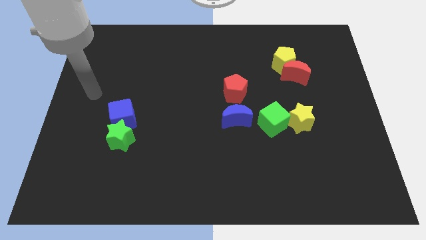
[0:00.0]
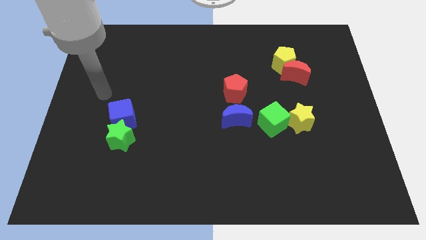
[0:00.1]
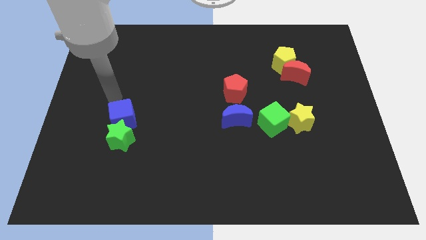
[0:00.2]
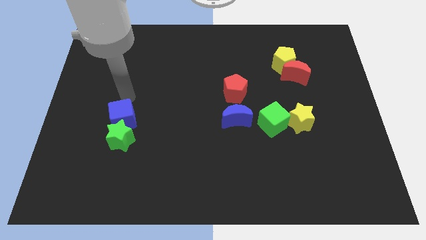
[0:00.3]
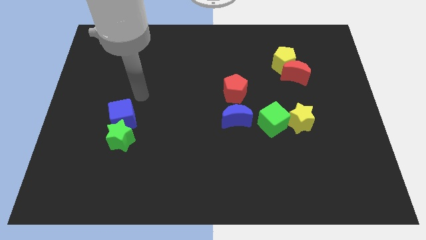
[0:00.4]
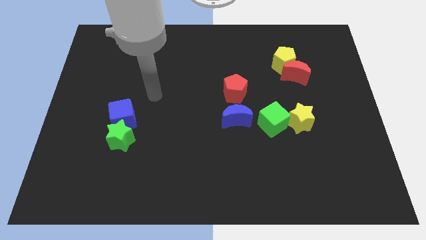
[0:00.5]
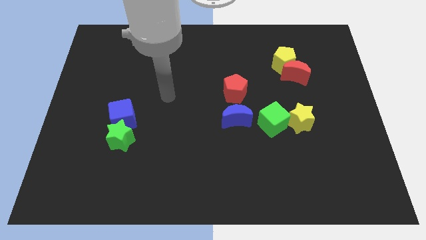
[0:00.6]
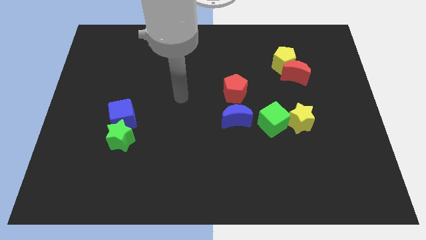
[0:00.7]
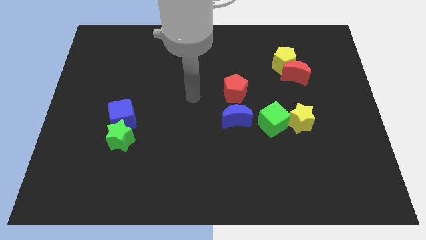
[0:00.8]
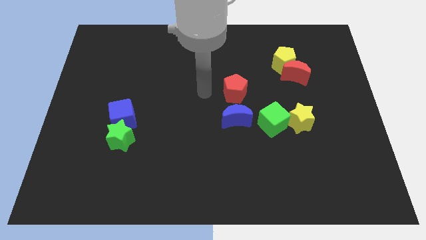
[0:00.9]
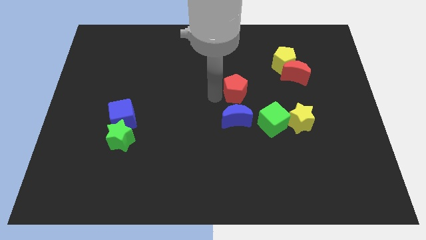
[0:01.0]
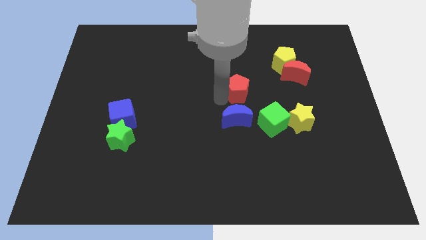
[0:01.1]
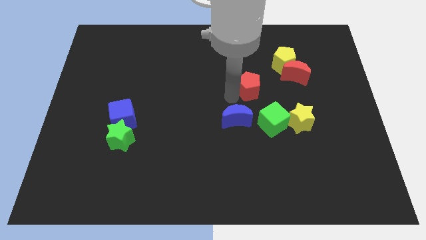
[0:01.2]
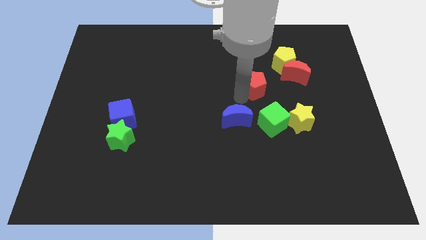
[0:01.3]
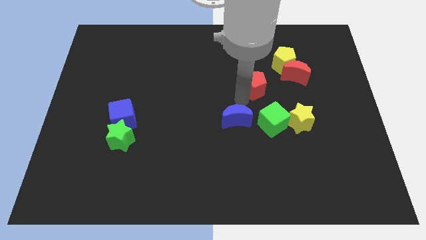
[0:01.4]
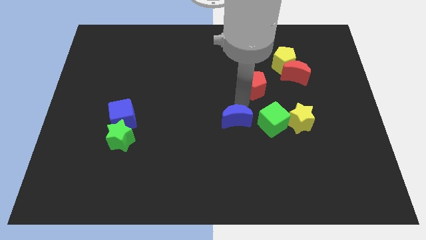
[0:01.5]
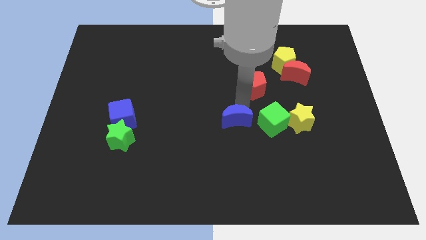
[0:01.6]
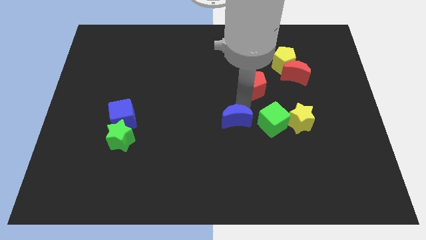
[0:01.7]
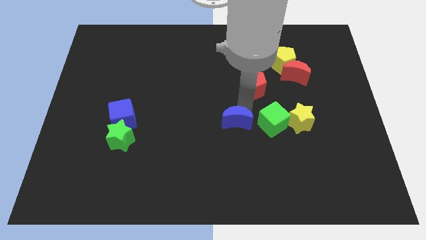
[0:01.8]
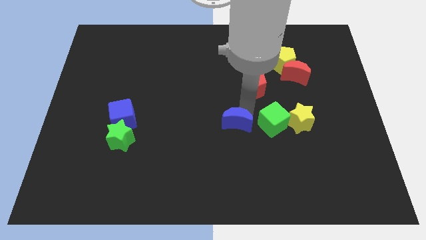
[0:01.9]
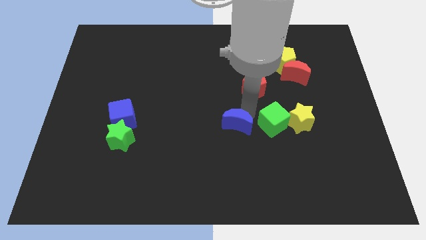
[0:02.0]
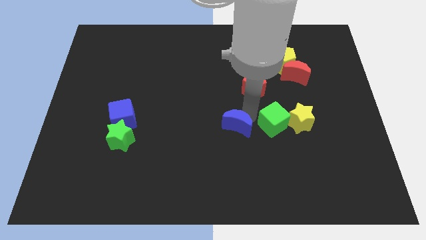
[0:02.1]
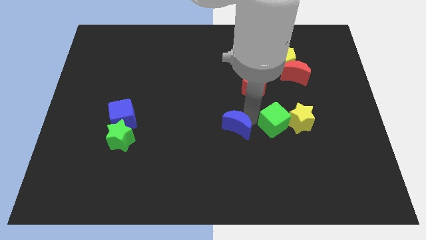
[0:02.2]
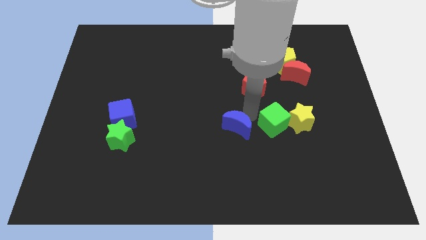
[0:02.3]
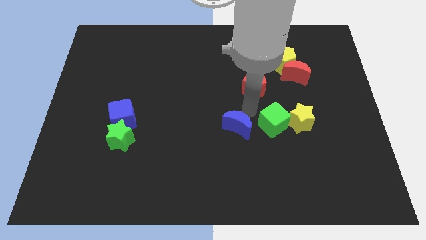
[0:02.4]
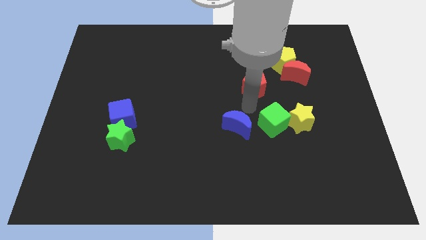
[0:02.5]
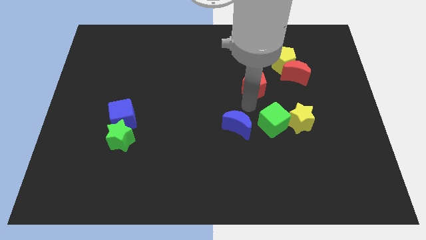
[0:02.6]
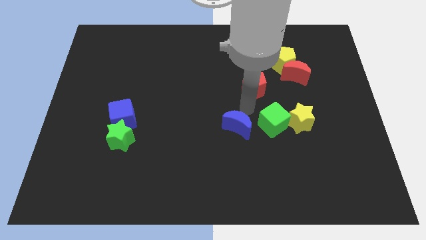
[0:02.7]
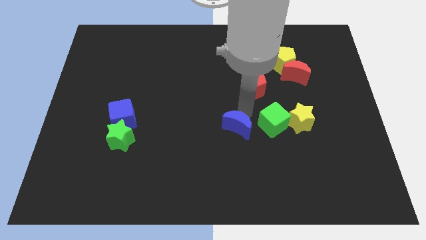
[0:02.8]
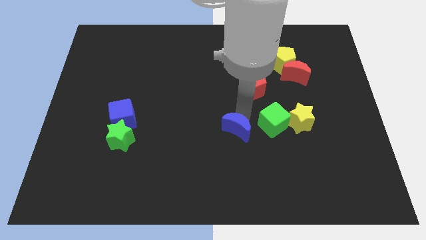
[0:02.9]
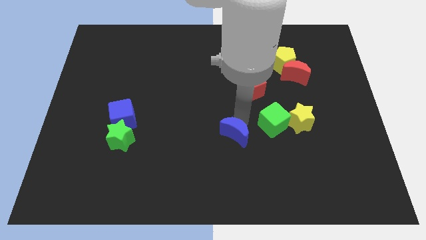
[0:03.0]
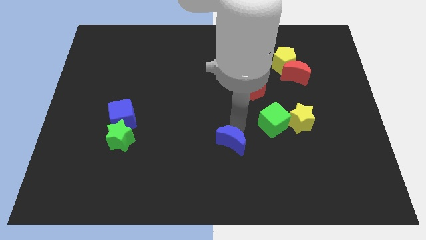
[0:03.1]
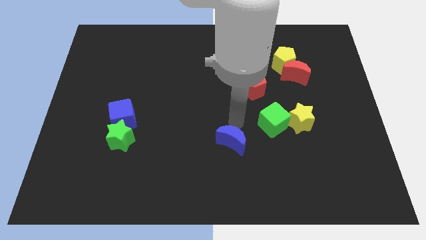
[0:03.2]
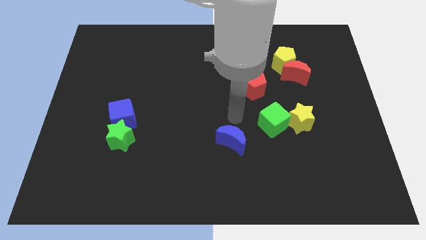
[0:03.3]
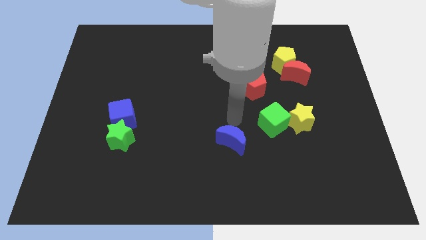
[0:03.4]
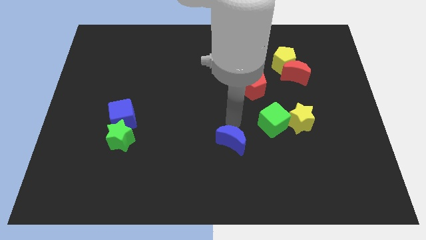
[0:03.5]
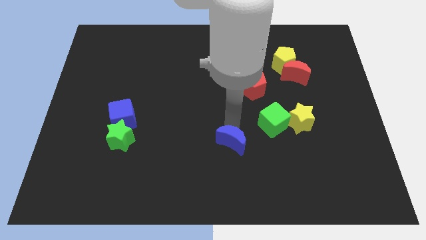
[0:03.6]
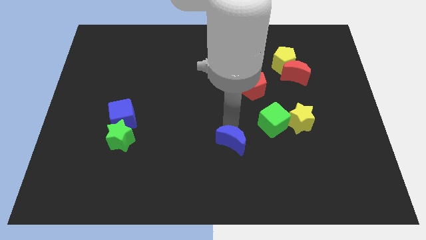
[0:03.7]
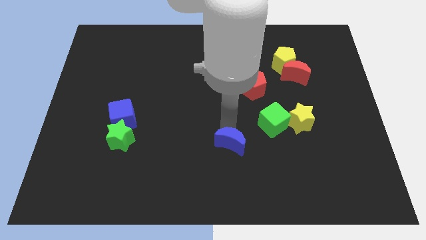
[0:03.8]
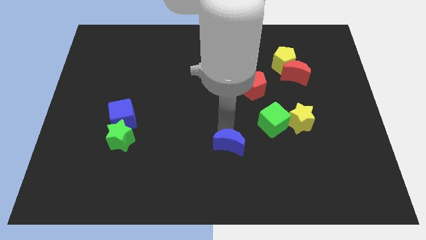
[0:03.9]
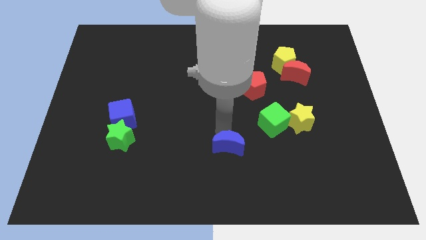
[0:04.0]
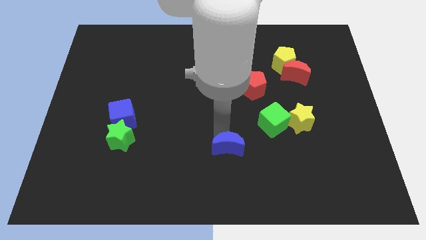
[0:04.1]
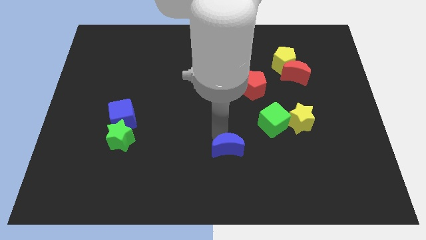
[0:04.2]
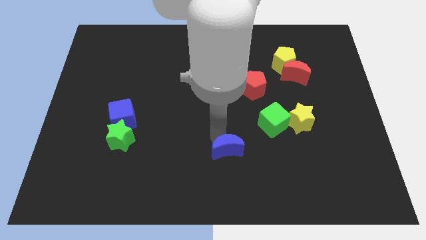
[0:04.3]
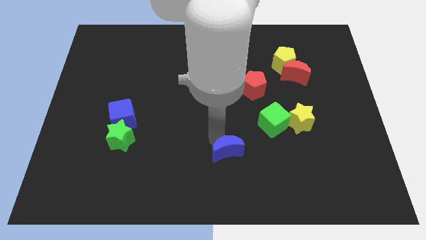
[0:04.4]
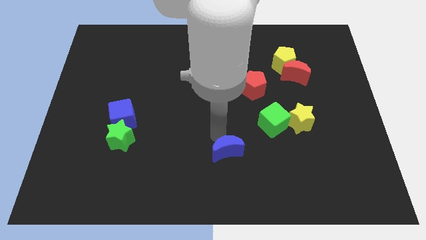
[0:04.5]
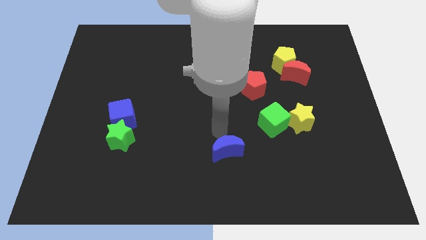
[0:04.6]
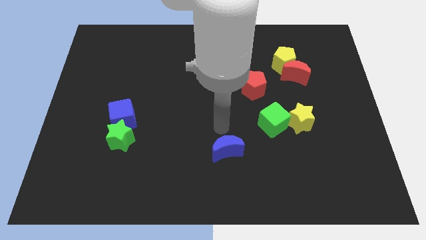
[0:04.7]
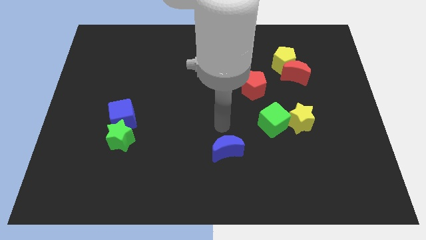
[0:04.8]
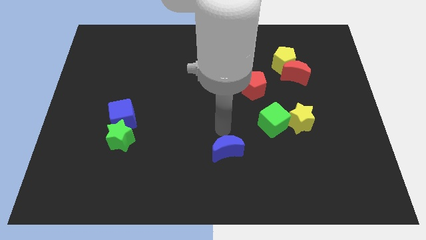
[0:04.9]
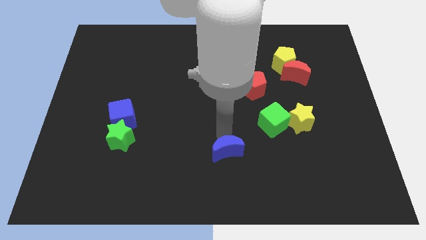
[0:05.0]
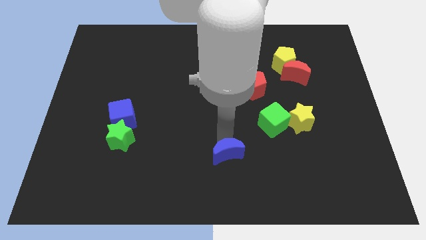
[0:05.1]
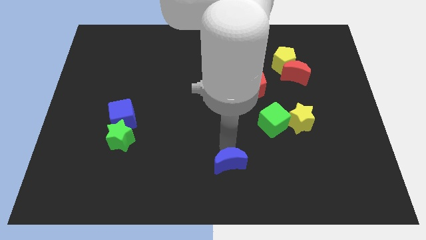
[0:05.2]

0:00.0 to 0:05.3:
put the blue moon to the bottom

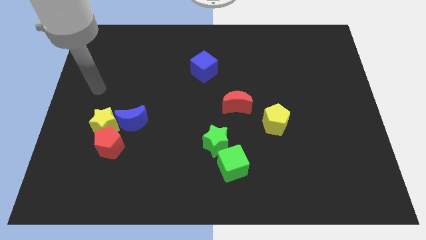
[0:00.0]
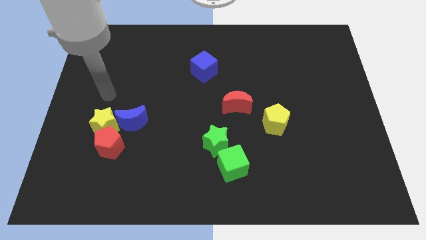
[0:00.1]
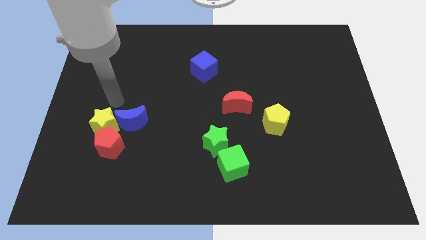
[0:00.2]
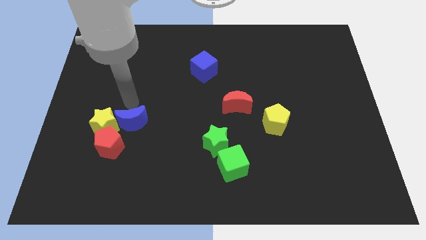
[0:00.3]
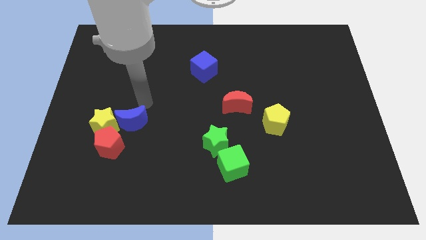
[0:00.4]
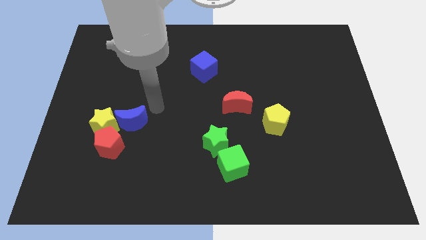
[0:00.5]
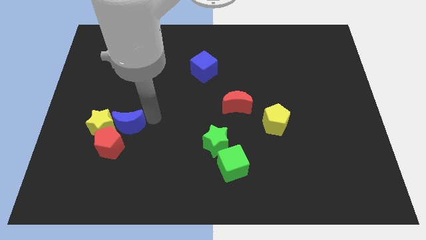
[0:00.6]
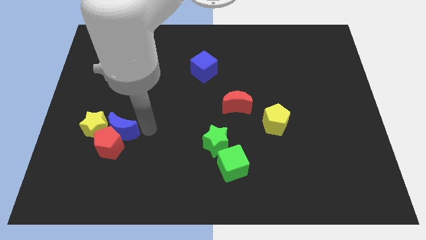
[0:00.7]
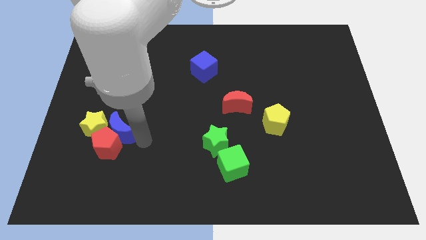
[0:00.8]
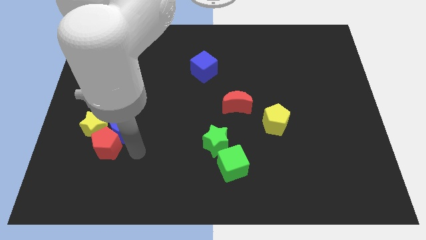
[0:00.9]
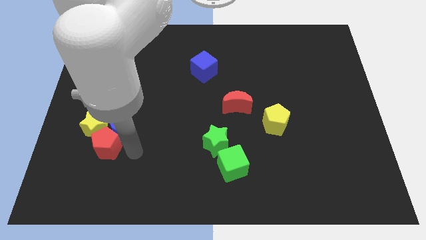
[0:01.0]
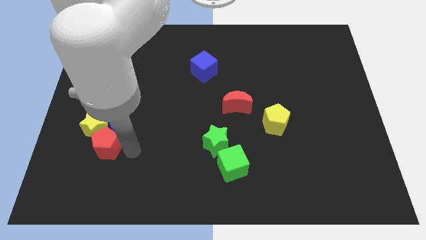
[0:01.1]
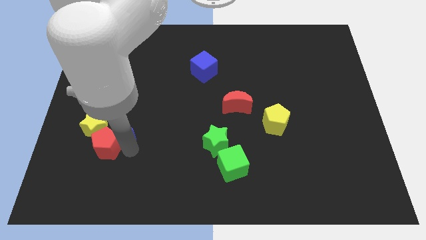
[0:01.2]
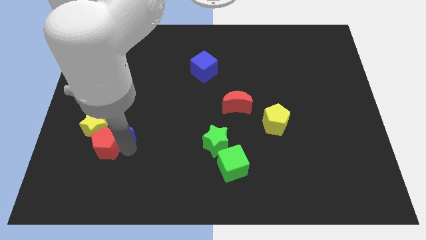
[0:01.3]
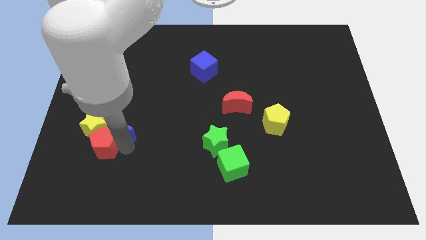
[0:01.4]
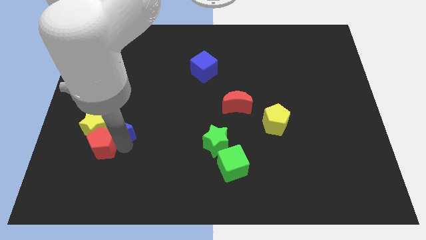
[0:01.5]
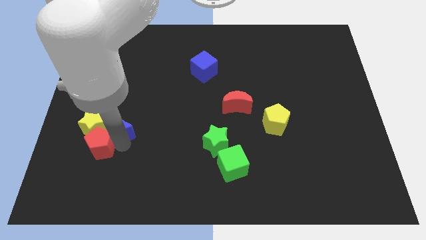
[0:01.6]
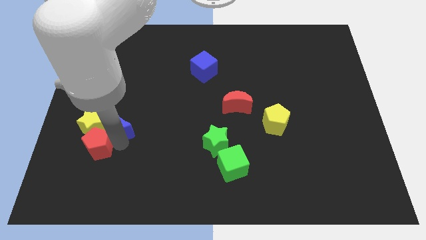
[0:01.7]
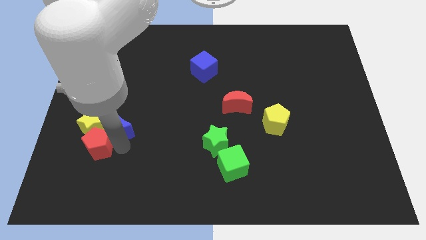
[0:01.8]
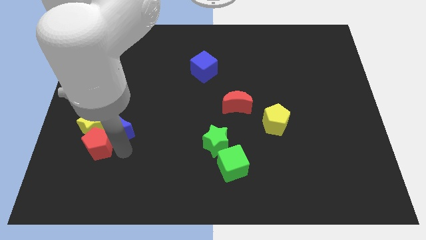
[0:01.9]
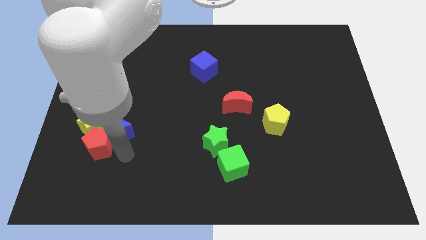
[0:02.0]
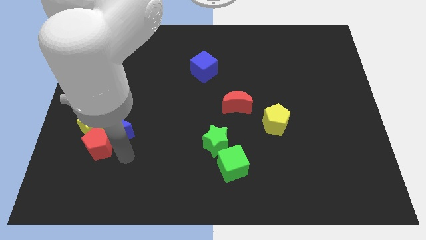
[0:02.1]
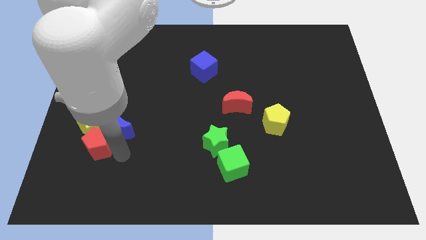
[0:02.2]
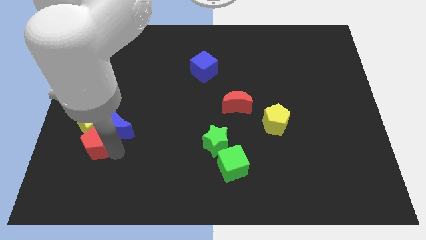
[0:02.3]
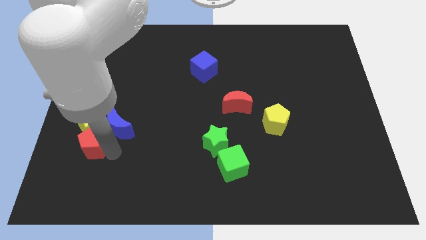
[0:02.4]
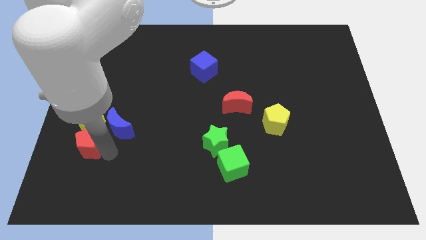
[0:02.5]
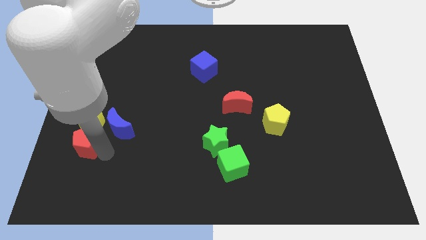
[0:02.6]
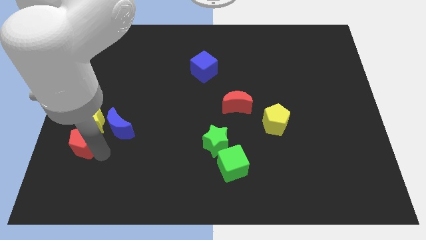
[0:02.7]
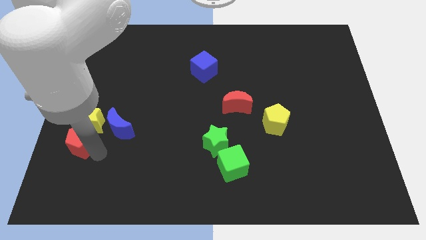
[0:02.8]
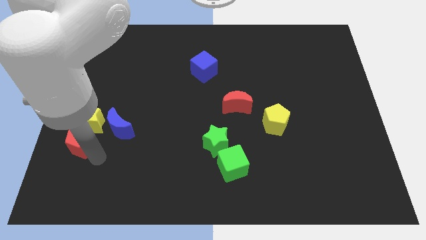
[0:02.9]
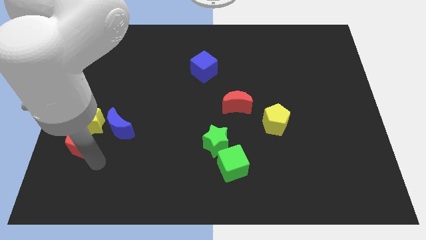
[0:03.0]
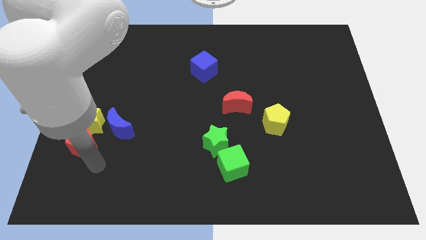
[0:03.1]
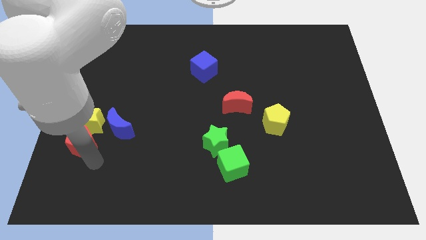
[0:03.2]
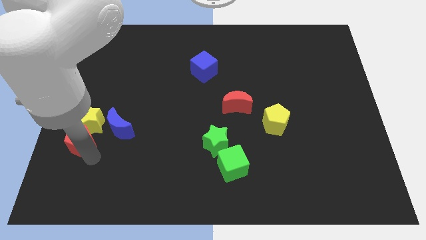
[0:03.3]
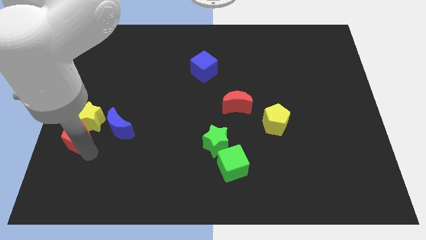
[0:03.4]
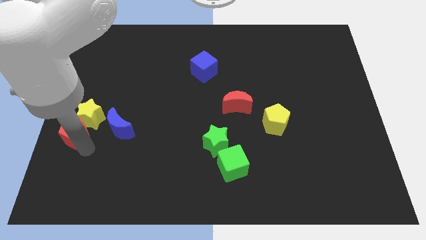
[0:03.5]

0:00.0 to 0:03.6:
put the red pentagon to the left side of the board
